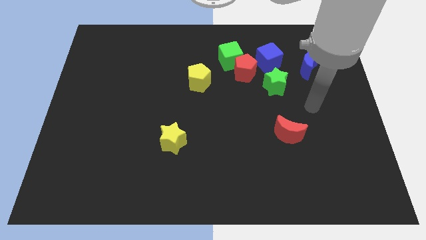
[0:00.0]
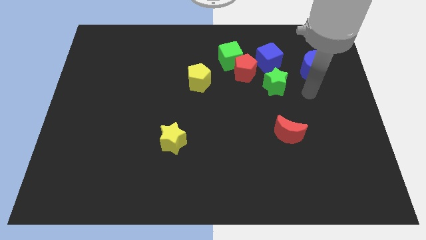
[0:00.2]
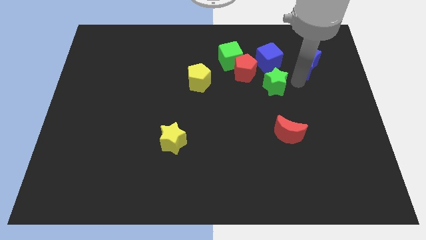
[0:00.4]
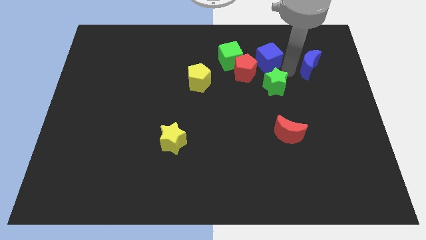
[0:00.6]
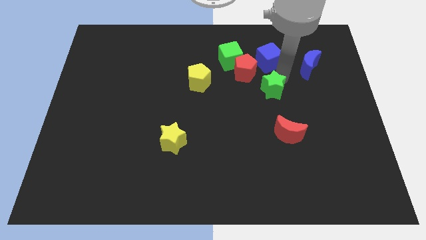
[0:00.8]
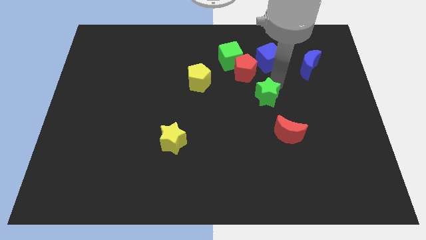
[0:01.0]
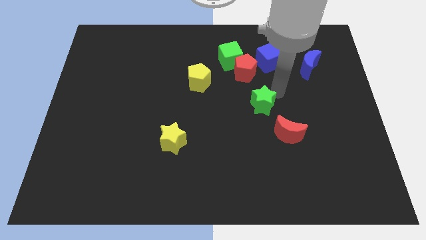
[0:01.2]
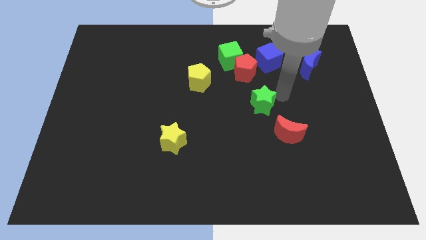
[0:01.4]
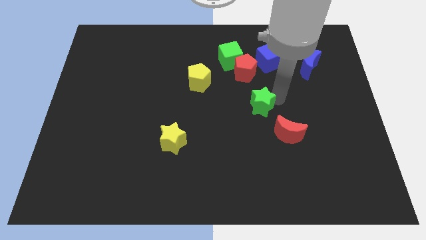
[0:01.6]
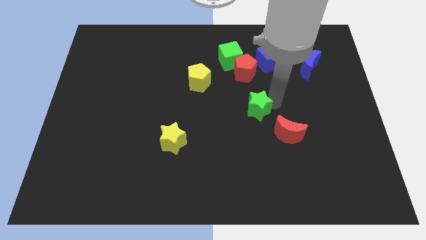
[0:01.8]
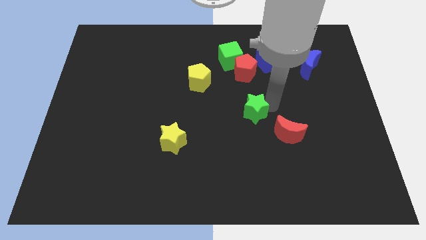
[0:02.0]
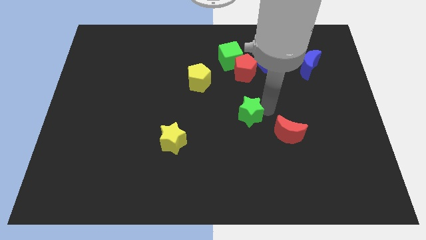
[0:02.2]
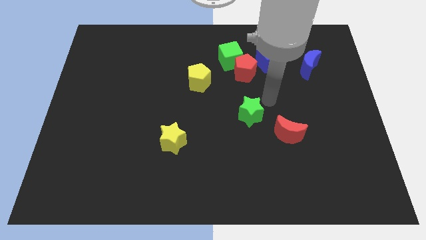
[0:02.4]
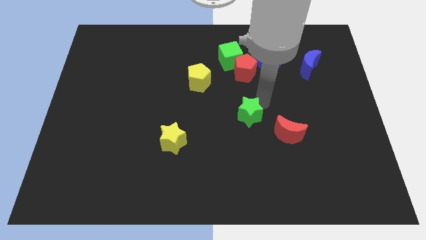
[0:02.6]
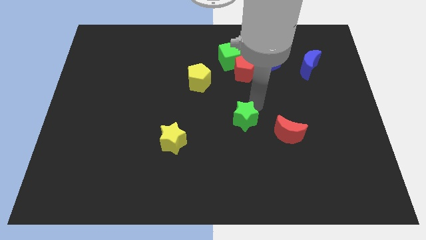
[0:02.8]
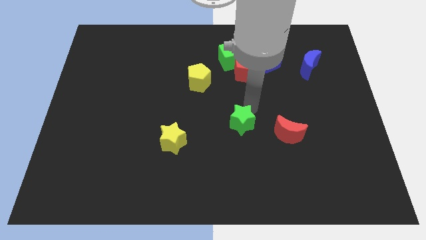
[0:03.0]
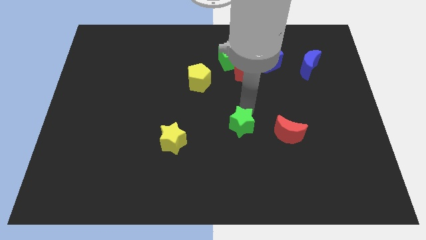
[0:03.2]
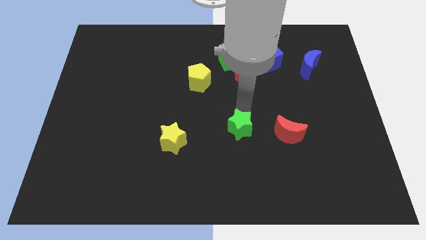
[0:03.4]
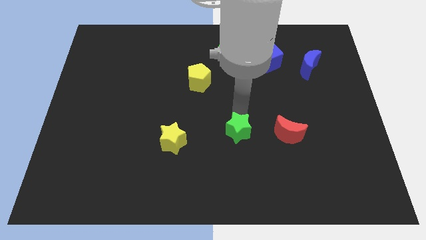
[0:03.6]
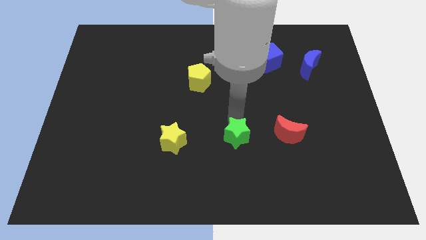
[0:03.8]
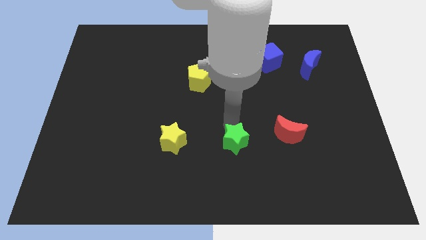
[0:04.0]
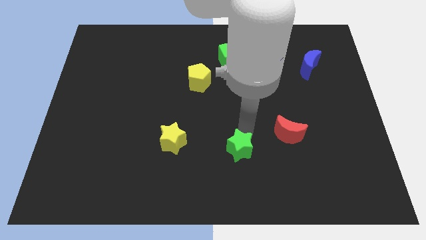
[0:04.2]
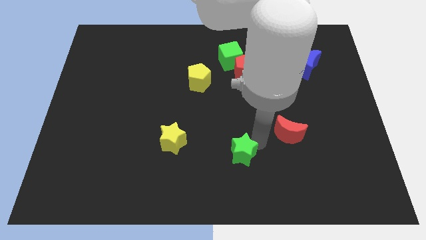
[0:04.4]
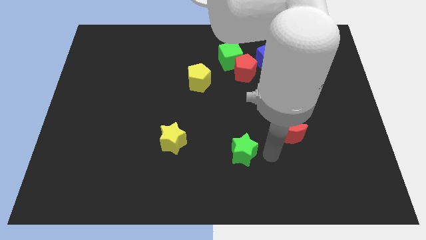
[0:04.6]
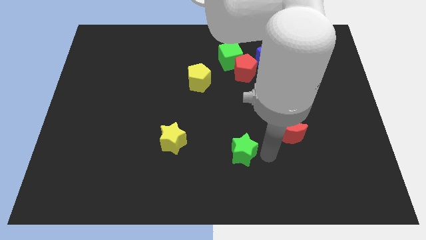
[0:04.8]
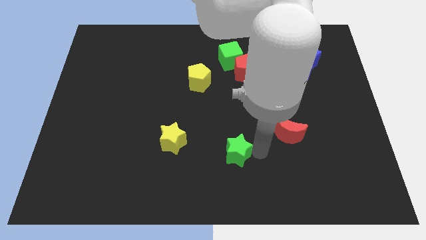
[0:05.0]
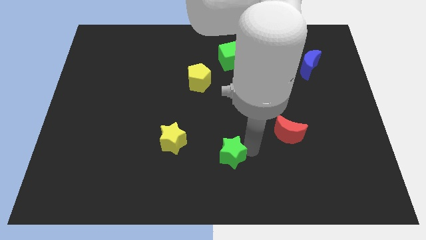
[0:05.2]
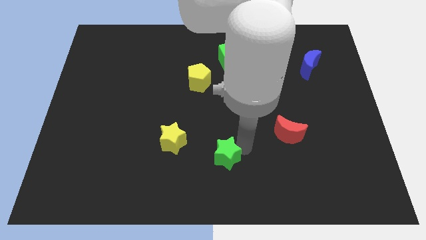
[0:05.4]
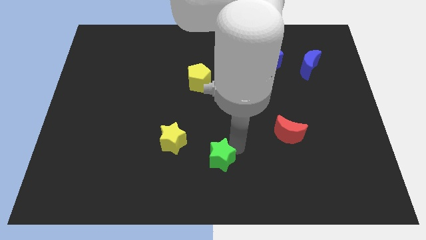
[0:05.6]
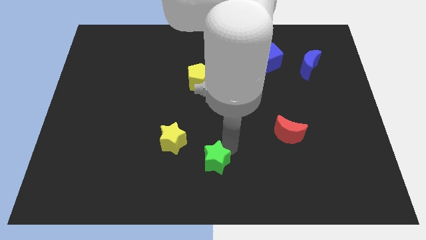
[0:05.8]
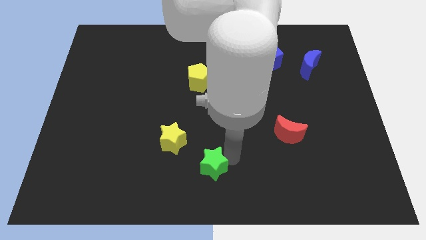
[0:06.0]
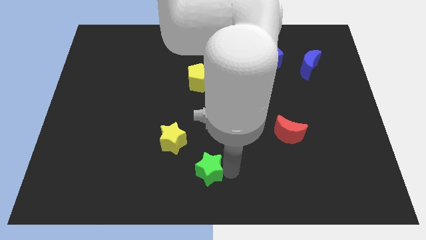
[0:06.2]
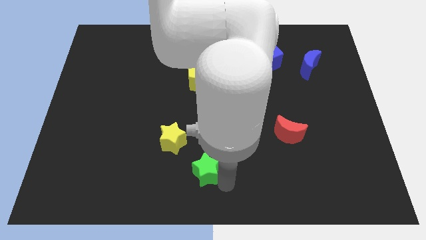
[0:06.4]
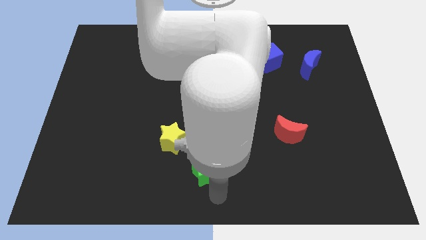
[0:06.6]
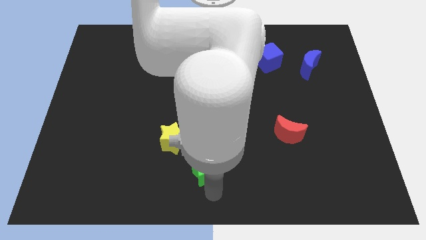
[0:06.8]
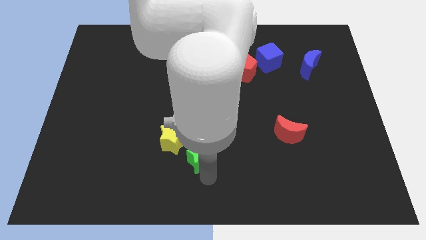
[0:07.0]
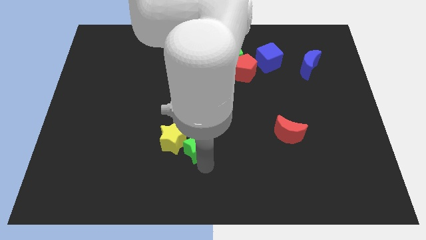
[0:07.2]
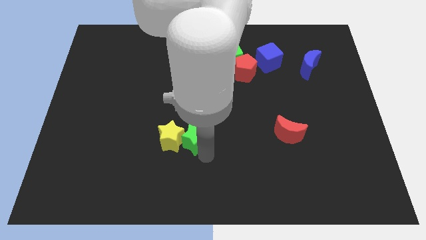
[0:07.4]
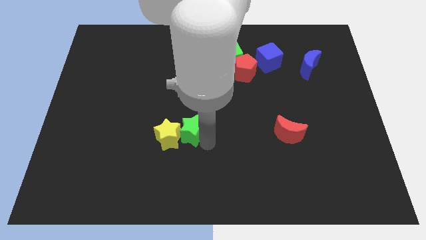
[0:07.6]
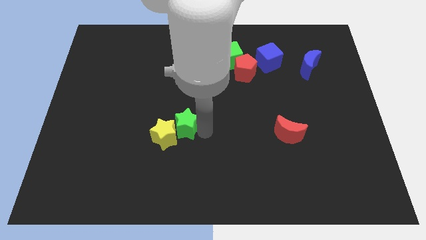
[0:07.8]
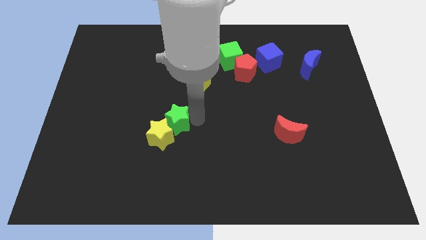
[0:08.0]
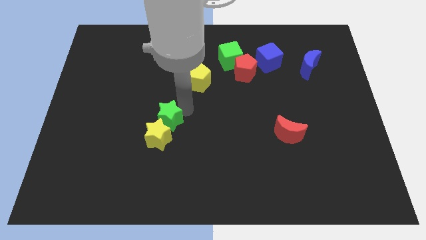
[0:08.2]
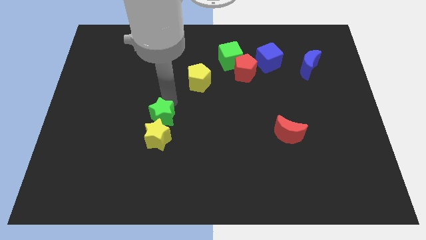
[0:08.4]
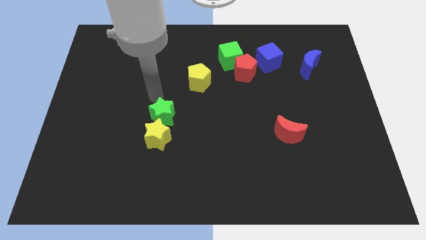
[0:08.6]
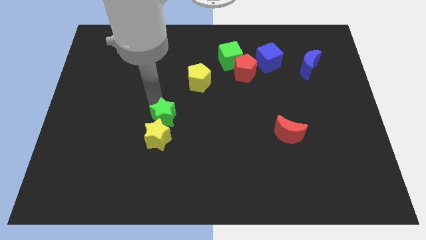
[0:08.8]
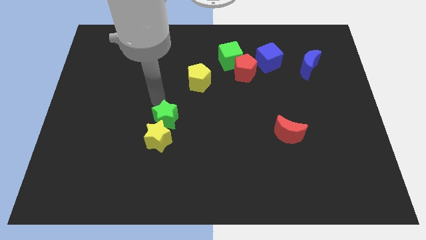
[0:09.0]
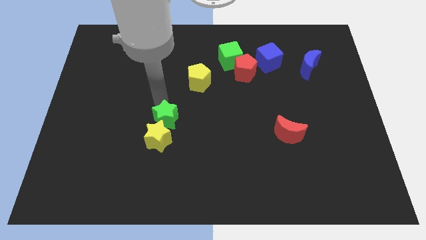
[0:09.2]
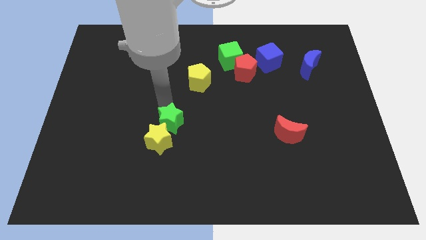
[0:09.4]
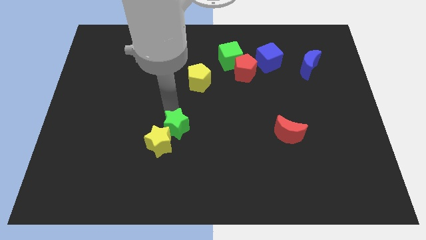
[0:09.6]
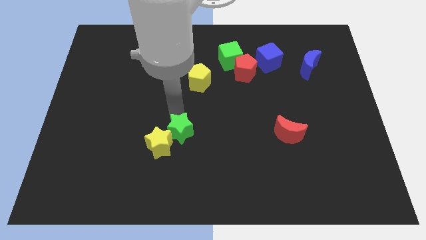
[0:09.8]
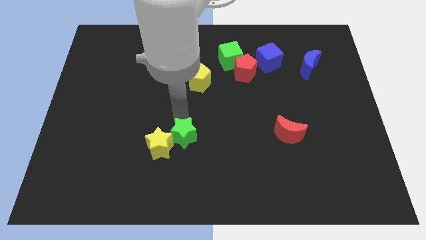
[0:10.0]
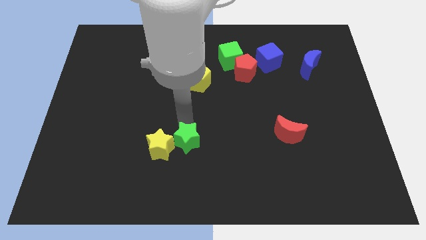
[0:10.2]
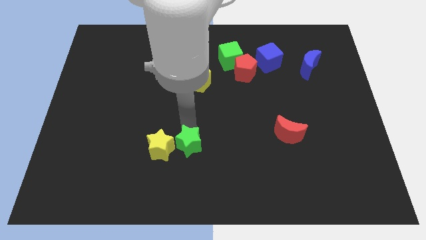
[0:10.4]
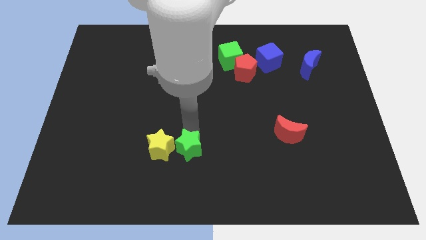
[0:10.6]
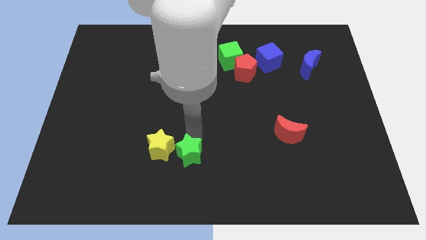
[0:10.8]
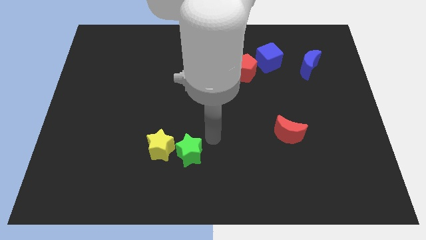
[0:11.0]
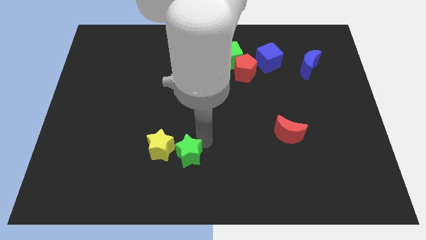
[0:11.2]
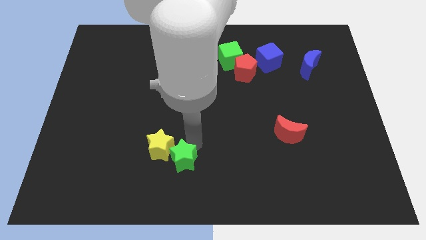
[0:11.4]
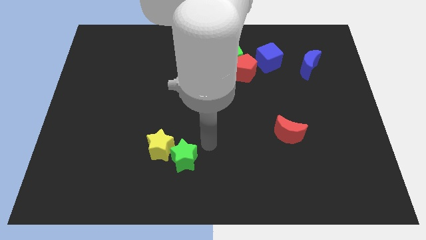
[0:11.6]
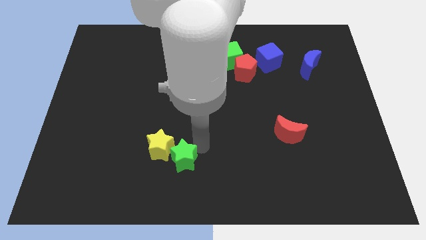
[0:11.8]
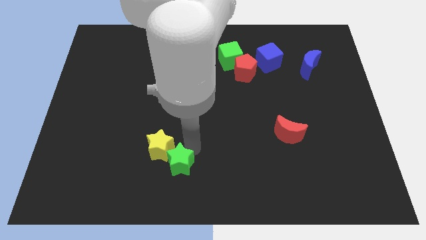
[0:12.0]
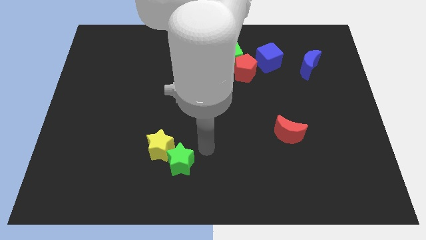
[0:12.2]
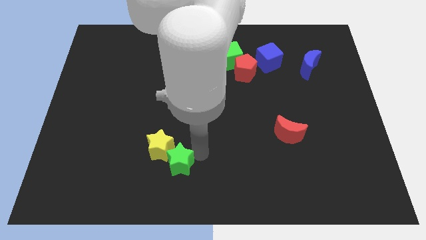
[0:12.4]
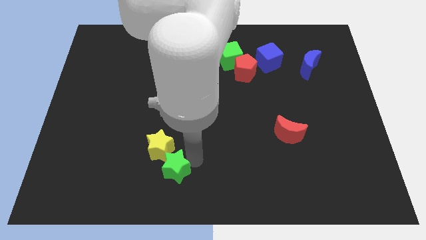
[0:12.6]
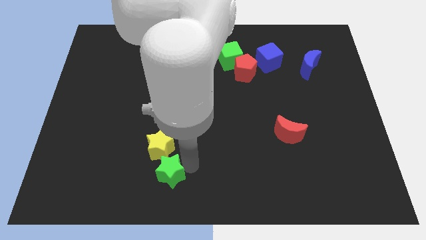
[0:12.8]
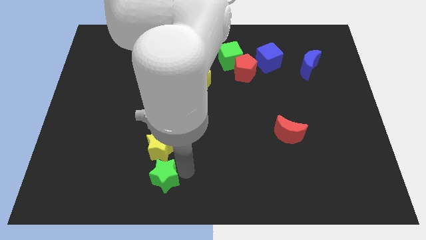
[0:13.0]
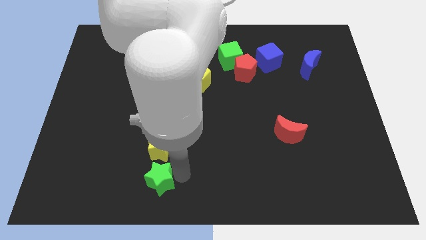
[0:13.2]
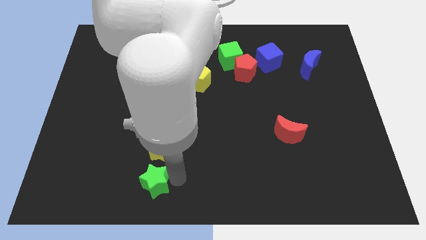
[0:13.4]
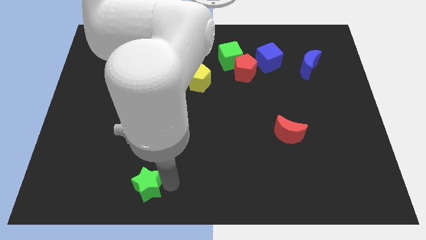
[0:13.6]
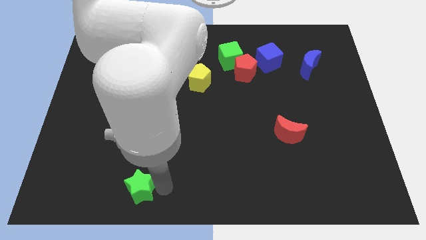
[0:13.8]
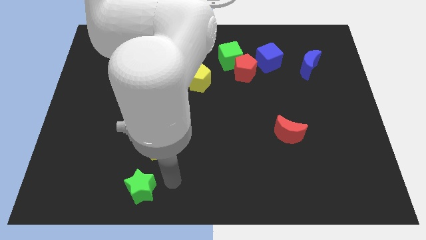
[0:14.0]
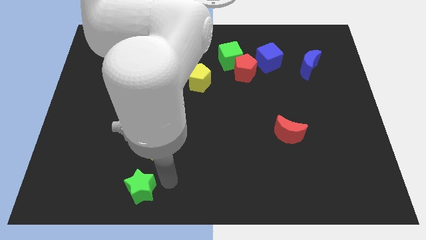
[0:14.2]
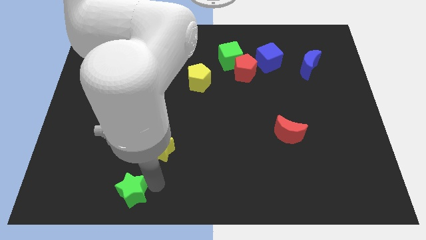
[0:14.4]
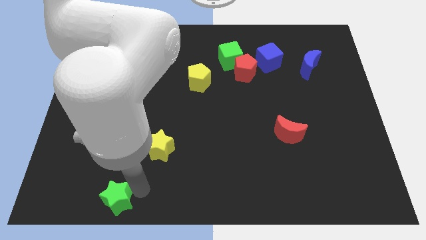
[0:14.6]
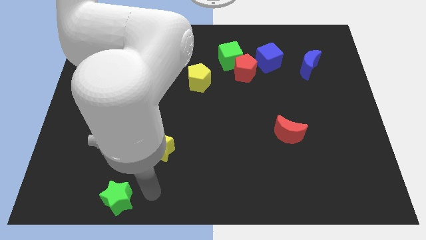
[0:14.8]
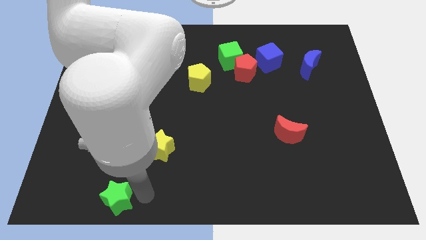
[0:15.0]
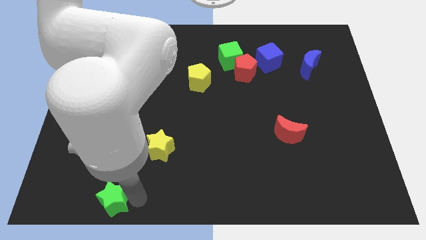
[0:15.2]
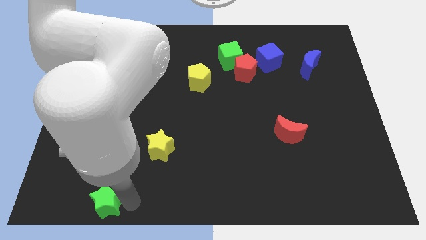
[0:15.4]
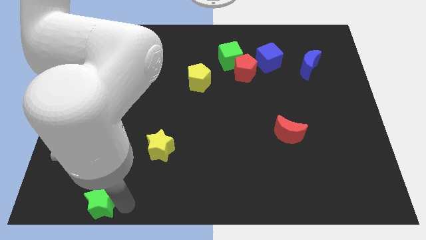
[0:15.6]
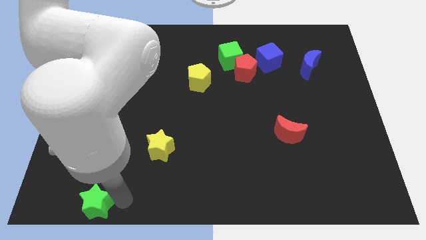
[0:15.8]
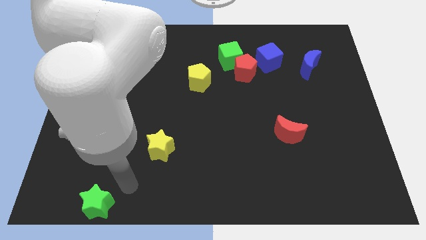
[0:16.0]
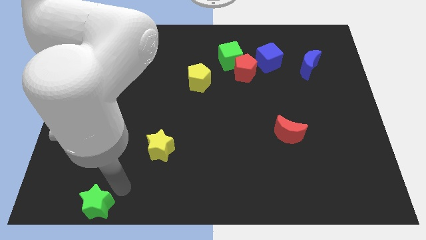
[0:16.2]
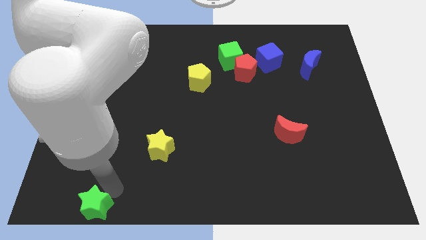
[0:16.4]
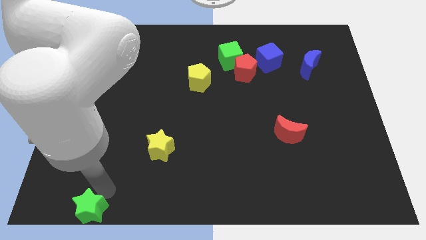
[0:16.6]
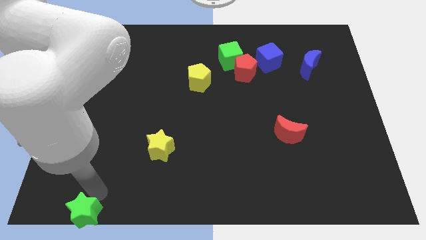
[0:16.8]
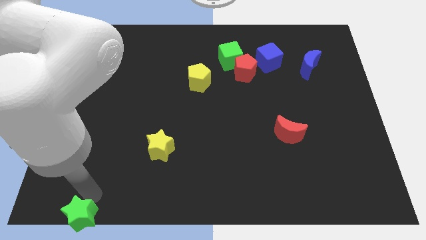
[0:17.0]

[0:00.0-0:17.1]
move the green star to the bottom left of the board
